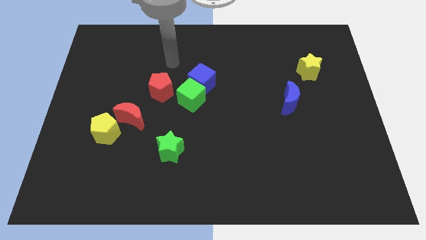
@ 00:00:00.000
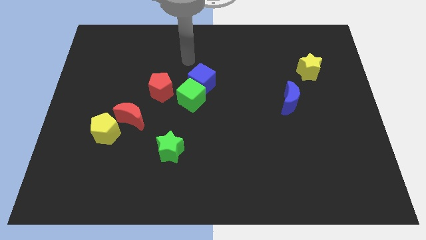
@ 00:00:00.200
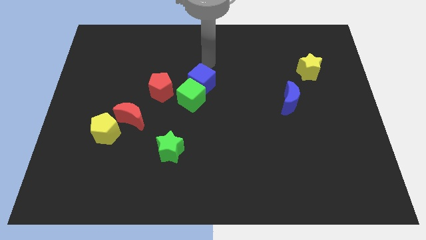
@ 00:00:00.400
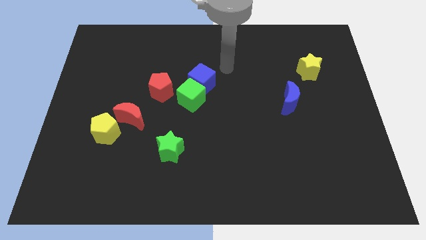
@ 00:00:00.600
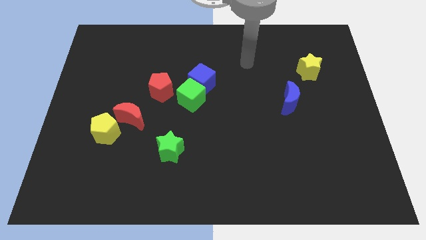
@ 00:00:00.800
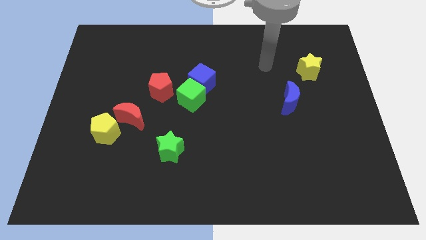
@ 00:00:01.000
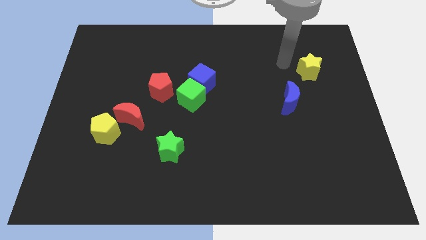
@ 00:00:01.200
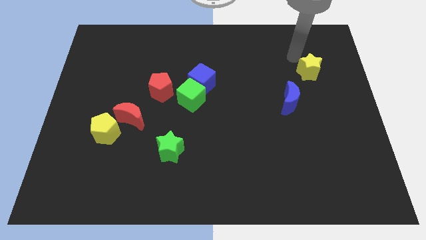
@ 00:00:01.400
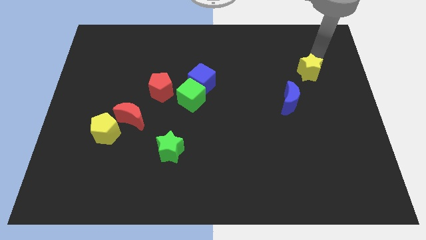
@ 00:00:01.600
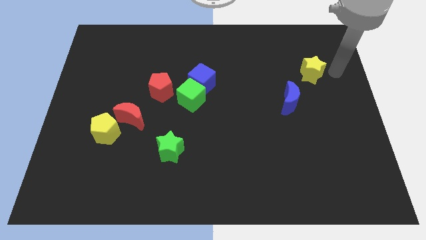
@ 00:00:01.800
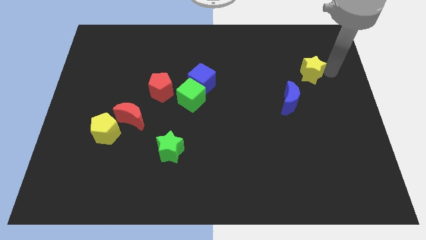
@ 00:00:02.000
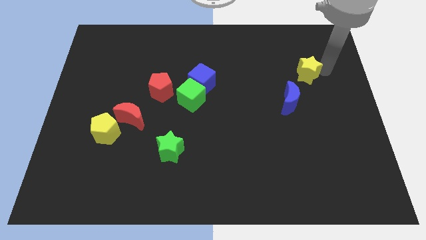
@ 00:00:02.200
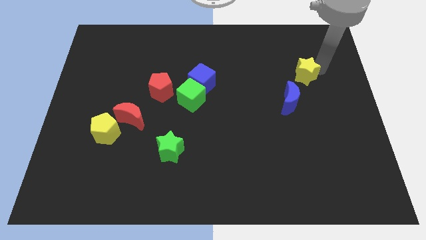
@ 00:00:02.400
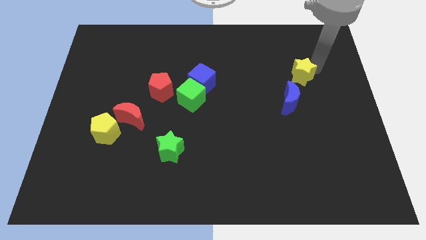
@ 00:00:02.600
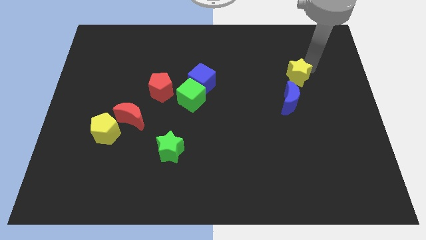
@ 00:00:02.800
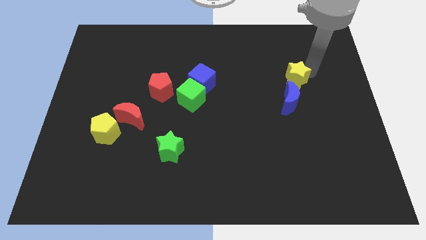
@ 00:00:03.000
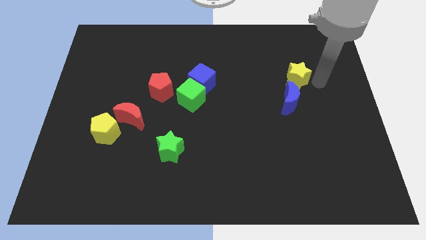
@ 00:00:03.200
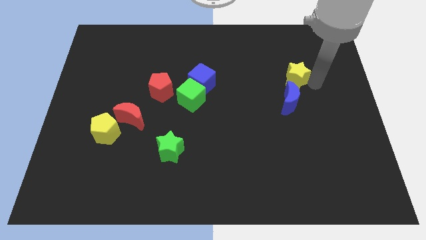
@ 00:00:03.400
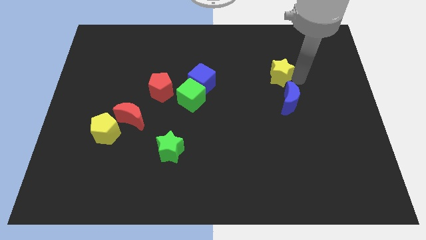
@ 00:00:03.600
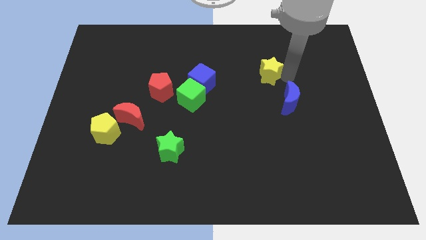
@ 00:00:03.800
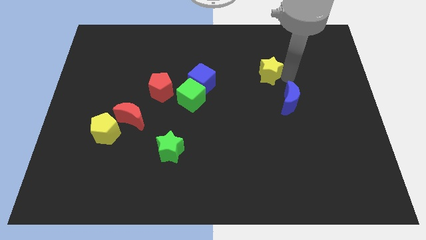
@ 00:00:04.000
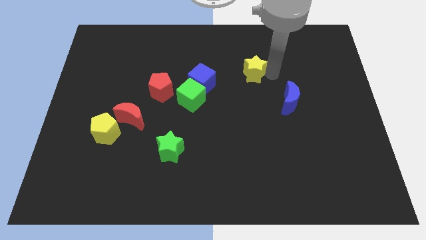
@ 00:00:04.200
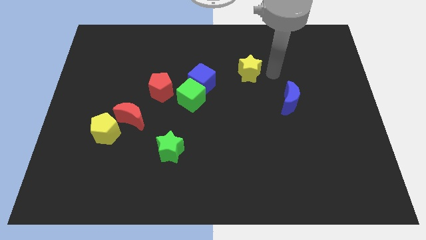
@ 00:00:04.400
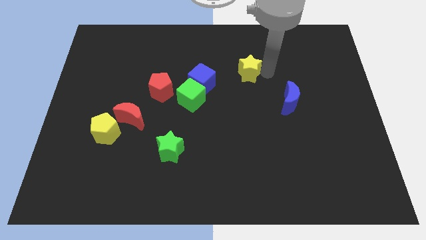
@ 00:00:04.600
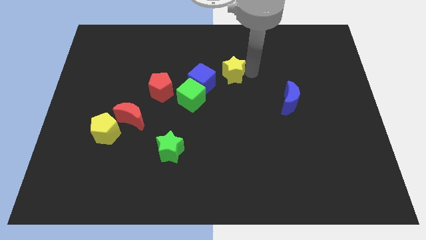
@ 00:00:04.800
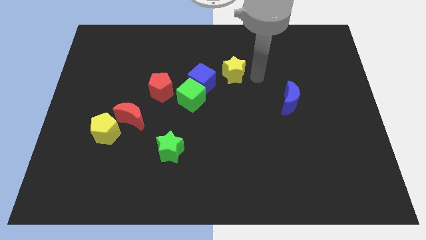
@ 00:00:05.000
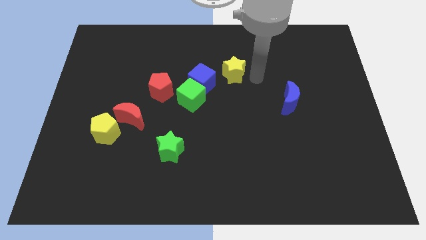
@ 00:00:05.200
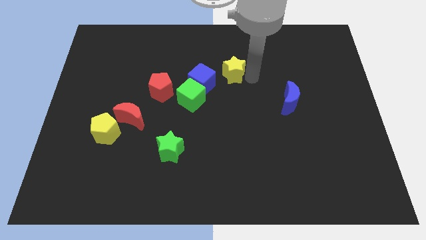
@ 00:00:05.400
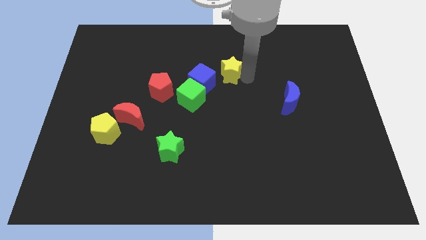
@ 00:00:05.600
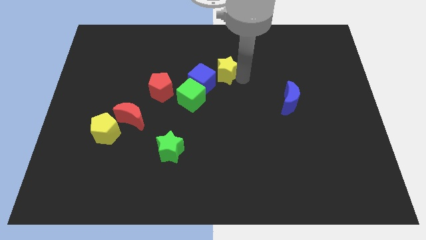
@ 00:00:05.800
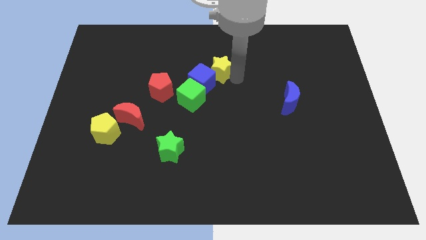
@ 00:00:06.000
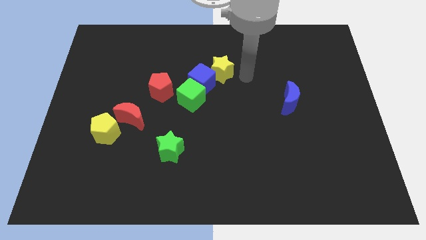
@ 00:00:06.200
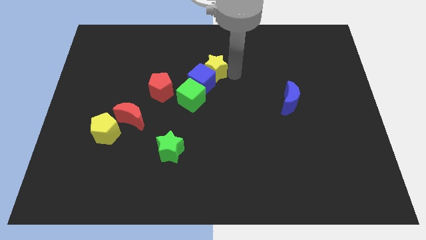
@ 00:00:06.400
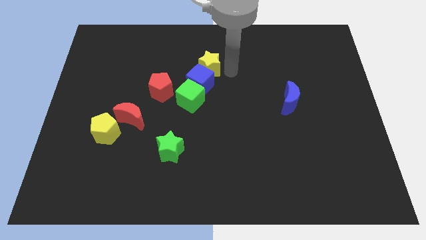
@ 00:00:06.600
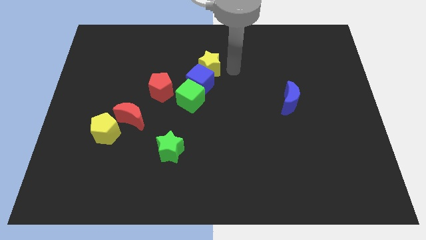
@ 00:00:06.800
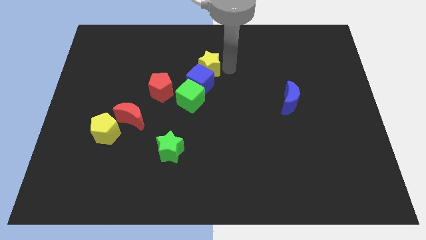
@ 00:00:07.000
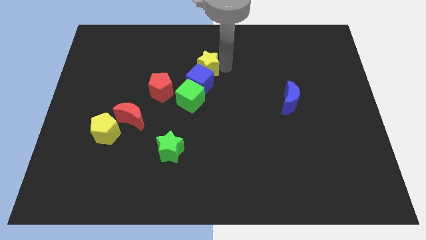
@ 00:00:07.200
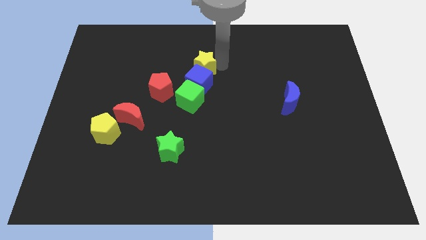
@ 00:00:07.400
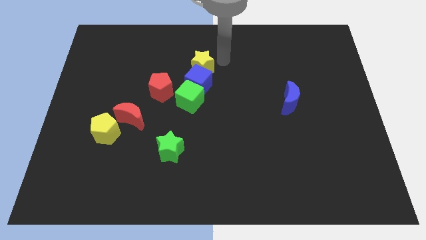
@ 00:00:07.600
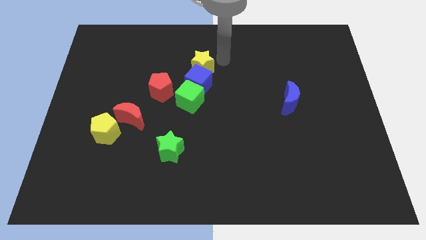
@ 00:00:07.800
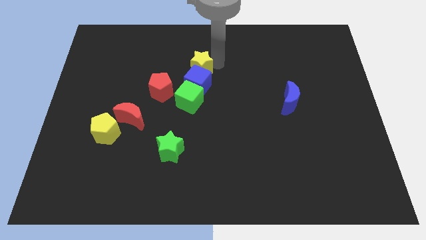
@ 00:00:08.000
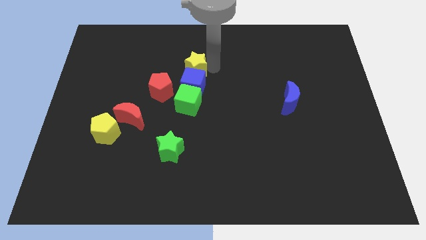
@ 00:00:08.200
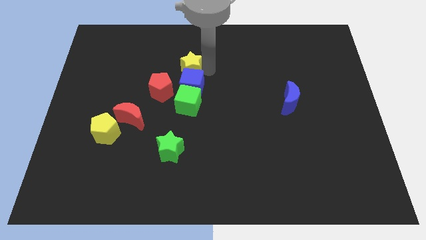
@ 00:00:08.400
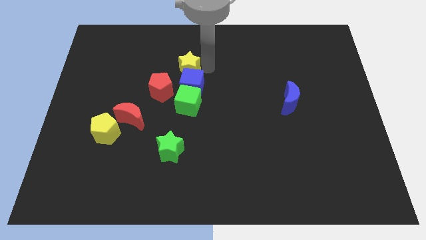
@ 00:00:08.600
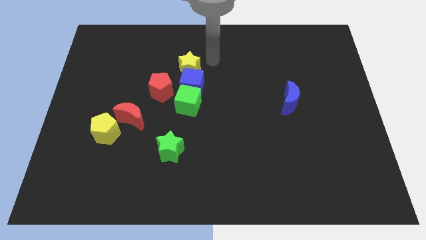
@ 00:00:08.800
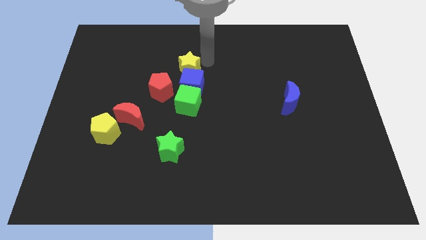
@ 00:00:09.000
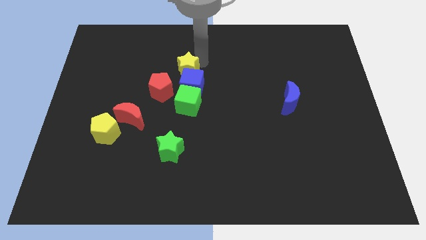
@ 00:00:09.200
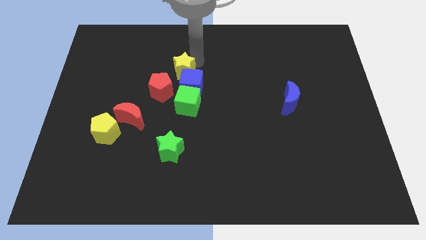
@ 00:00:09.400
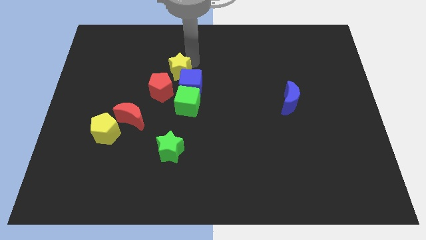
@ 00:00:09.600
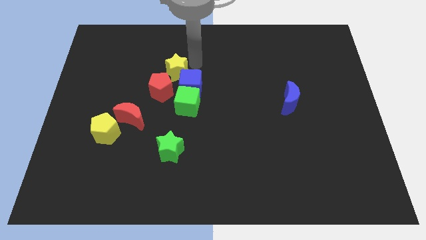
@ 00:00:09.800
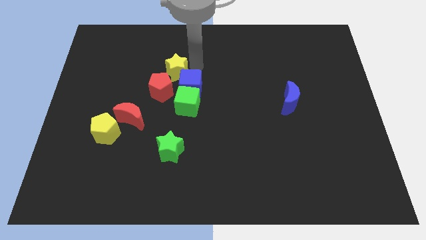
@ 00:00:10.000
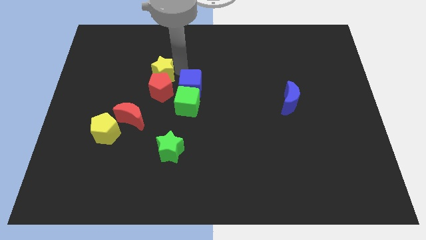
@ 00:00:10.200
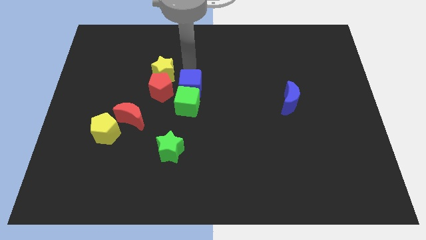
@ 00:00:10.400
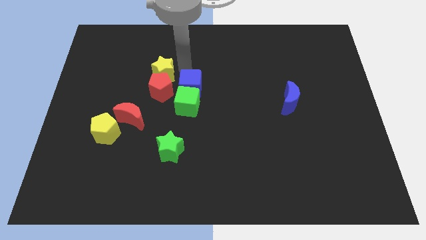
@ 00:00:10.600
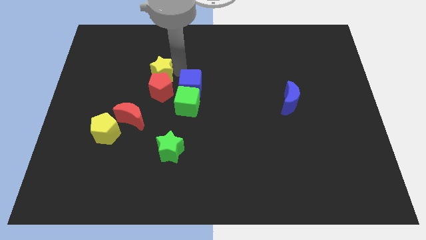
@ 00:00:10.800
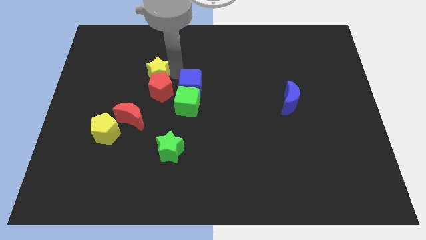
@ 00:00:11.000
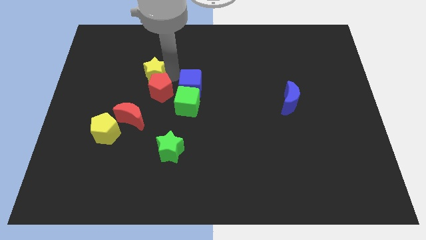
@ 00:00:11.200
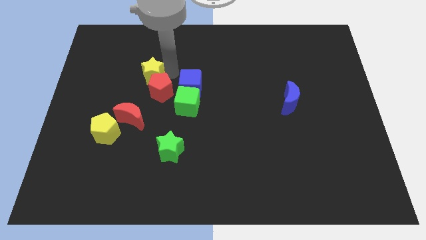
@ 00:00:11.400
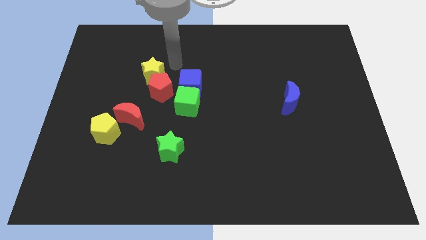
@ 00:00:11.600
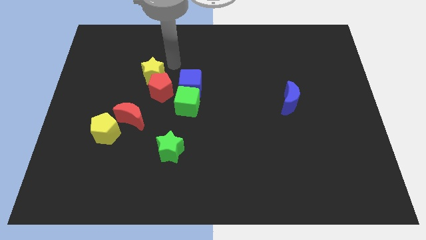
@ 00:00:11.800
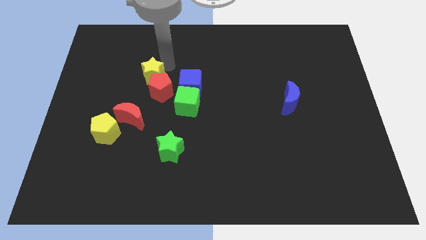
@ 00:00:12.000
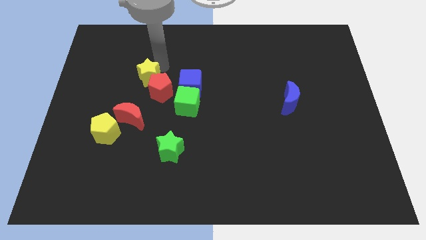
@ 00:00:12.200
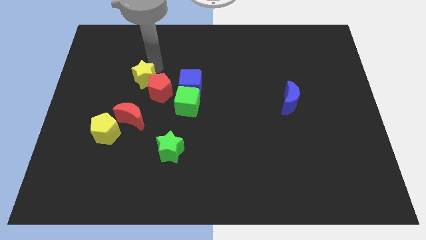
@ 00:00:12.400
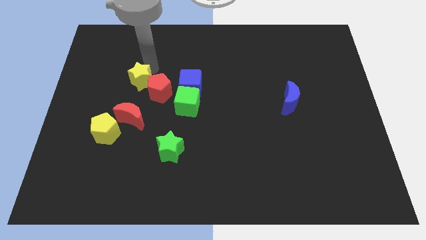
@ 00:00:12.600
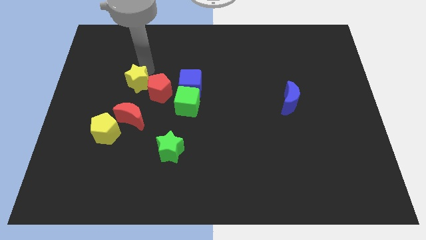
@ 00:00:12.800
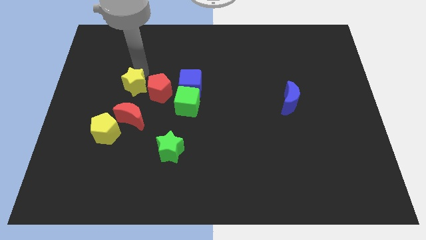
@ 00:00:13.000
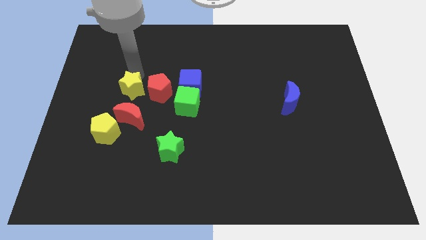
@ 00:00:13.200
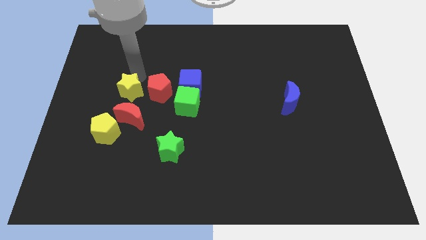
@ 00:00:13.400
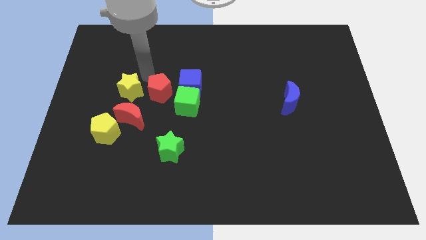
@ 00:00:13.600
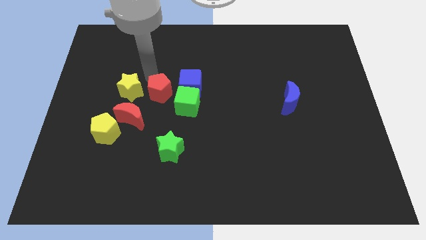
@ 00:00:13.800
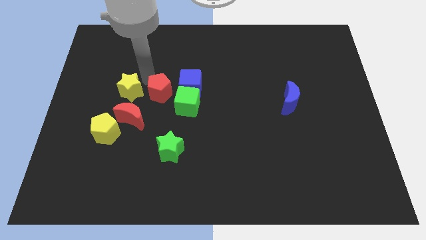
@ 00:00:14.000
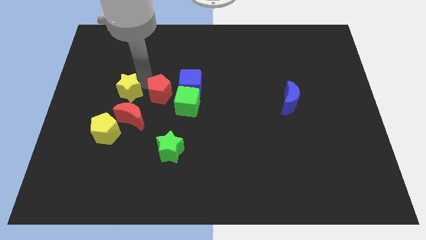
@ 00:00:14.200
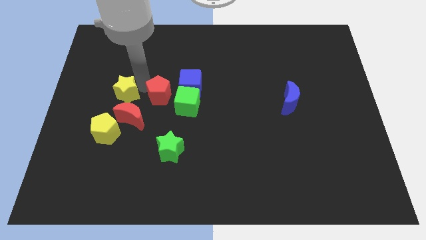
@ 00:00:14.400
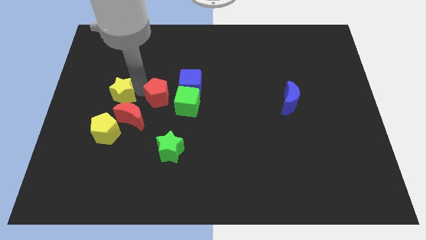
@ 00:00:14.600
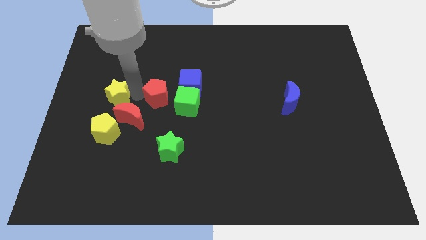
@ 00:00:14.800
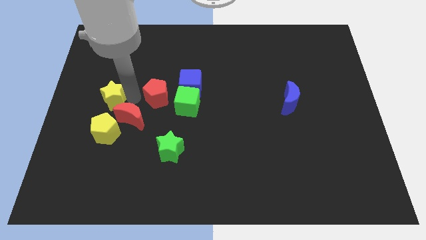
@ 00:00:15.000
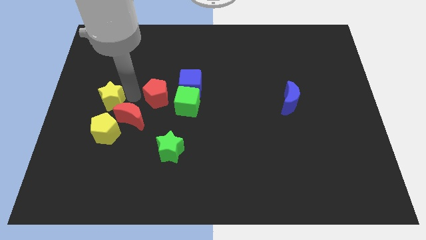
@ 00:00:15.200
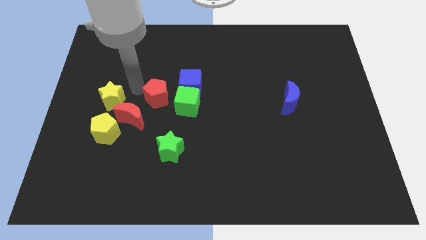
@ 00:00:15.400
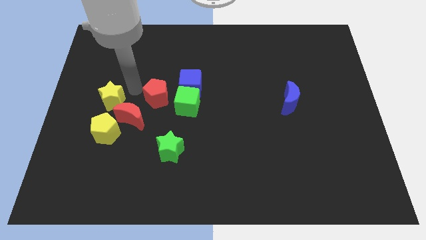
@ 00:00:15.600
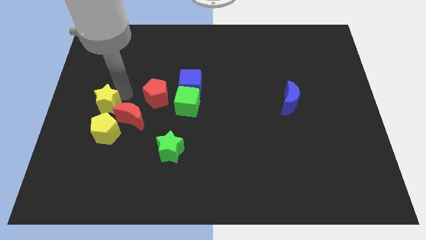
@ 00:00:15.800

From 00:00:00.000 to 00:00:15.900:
move the yellow star just left of the red moon

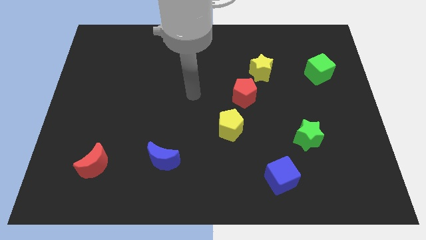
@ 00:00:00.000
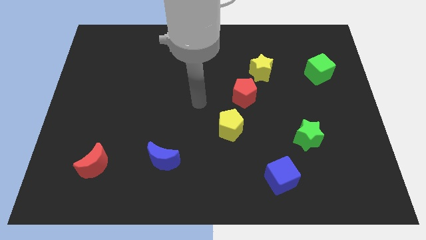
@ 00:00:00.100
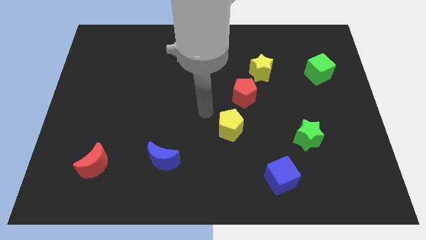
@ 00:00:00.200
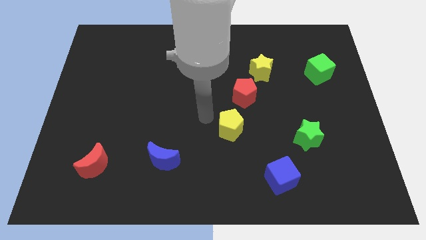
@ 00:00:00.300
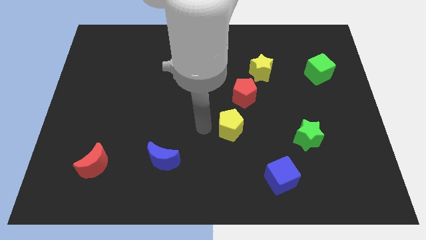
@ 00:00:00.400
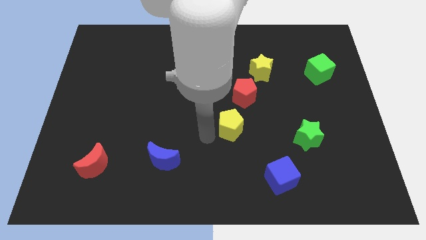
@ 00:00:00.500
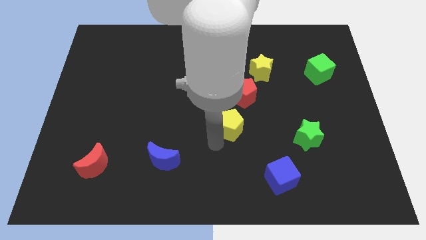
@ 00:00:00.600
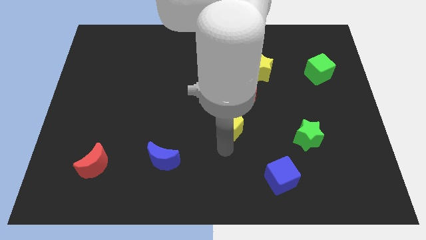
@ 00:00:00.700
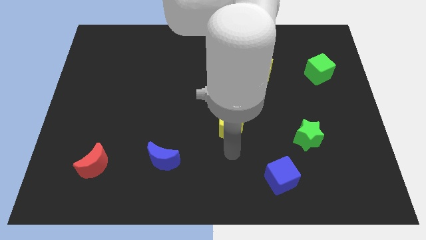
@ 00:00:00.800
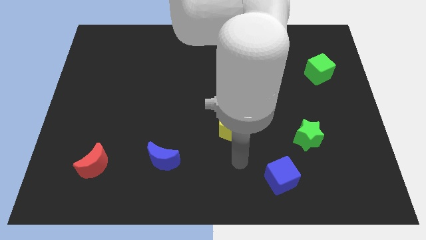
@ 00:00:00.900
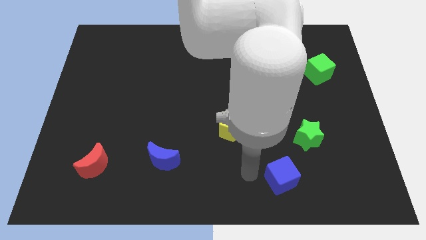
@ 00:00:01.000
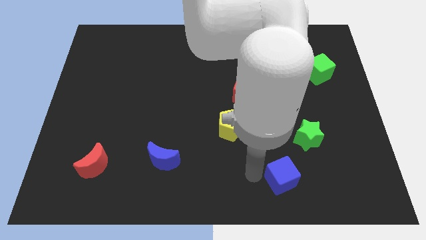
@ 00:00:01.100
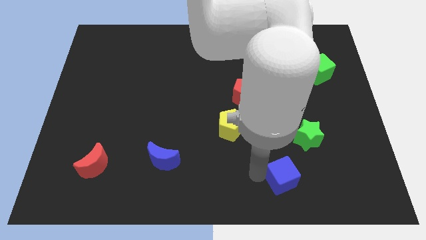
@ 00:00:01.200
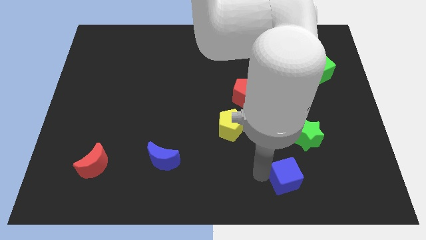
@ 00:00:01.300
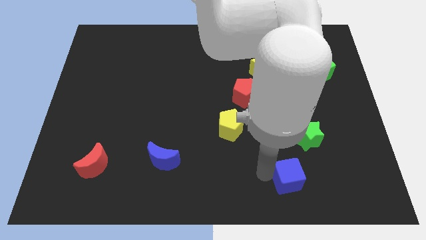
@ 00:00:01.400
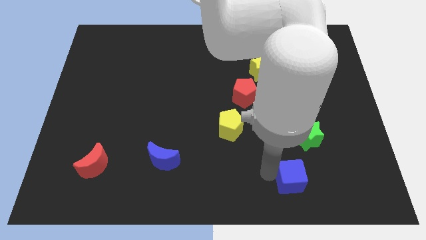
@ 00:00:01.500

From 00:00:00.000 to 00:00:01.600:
move the blue cube to the bottom side of the green star
